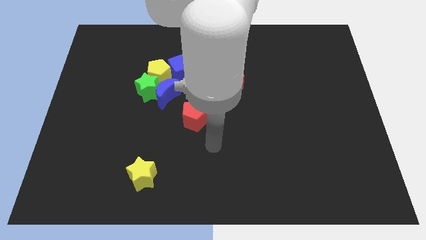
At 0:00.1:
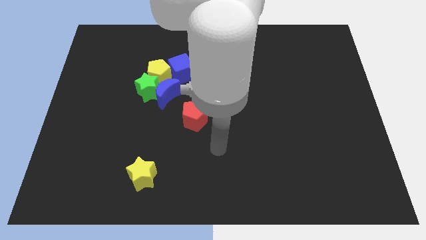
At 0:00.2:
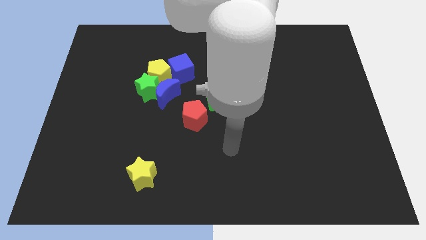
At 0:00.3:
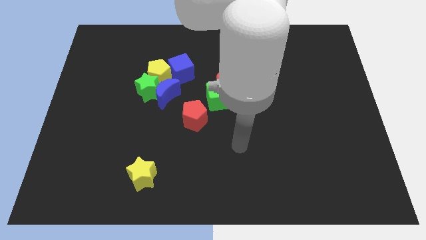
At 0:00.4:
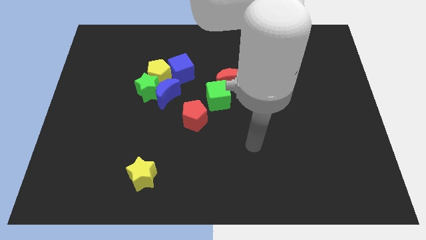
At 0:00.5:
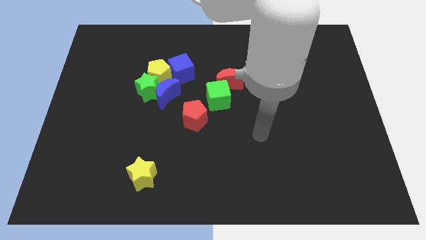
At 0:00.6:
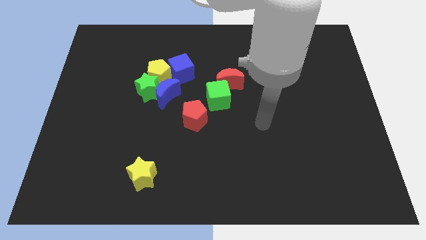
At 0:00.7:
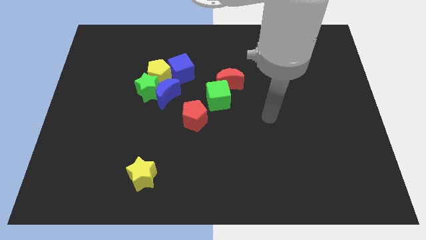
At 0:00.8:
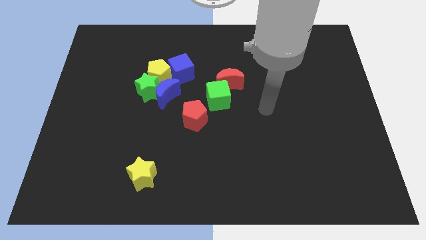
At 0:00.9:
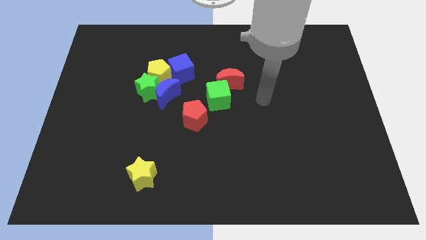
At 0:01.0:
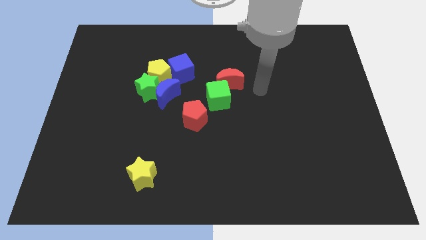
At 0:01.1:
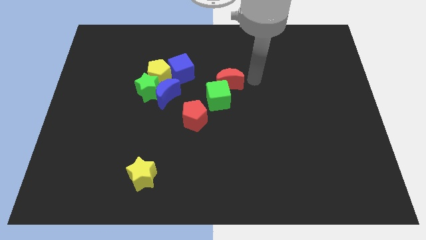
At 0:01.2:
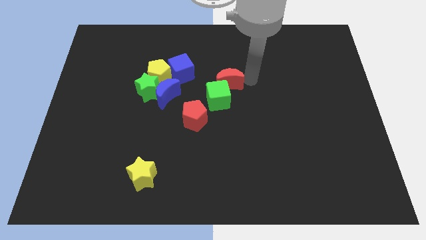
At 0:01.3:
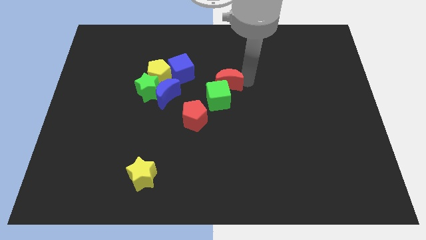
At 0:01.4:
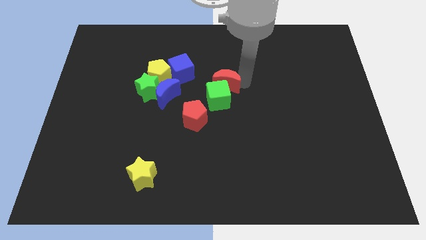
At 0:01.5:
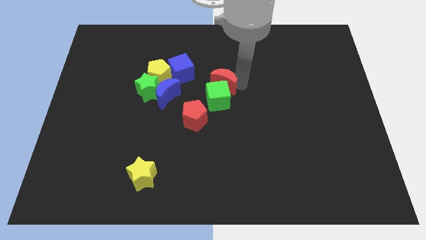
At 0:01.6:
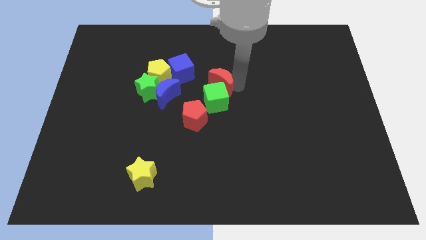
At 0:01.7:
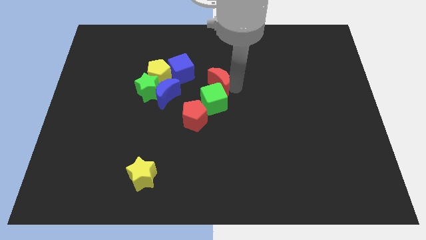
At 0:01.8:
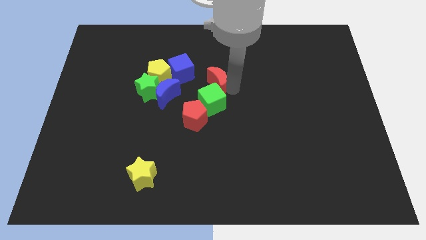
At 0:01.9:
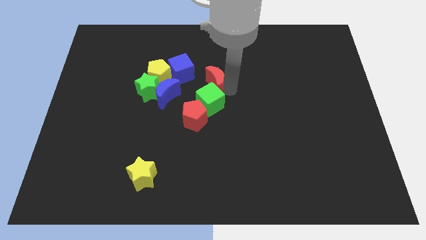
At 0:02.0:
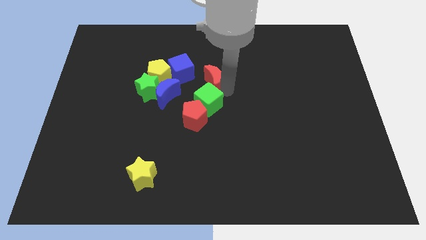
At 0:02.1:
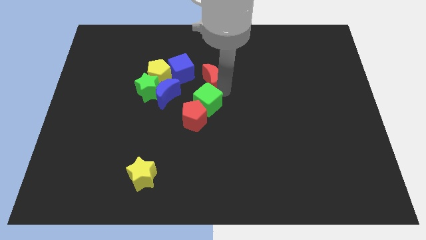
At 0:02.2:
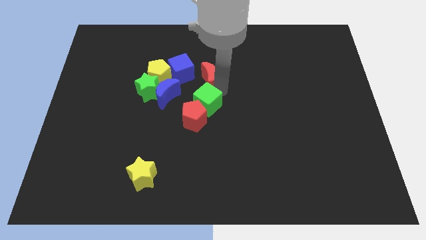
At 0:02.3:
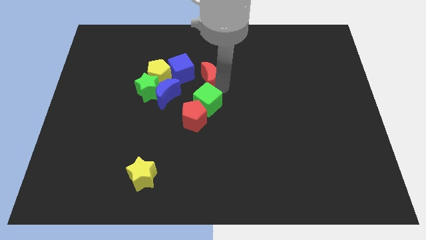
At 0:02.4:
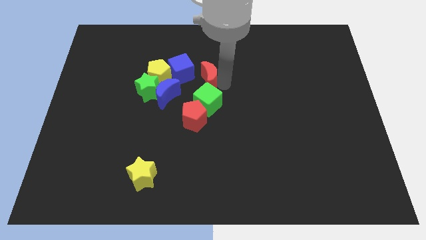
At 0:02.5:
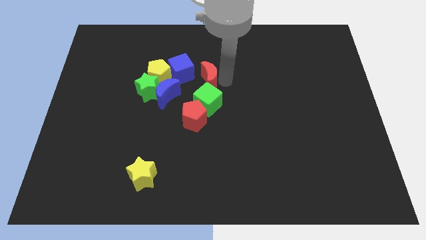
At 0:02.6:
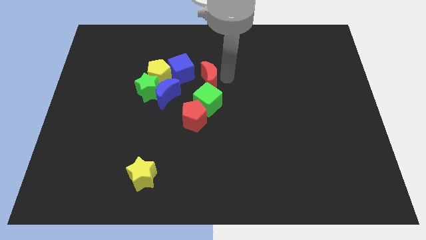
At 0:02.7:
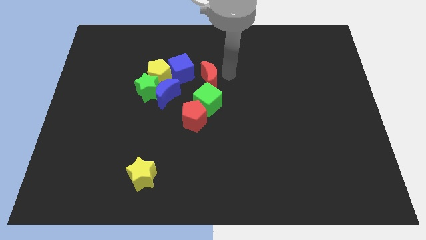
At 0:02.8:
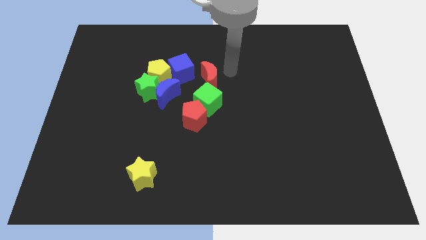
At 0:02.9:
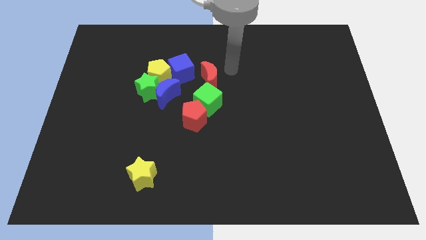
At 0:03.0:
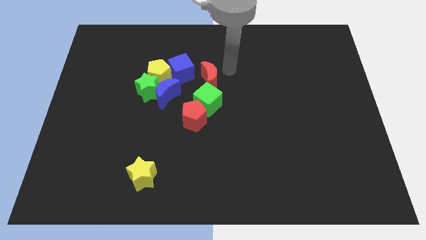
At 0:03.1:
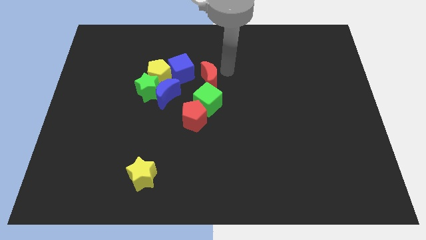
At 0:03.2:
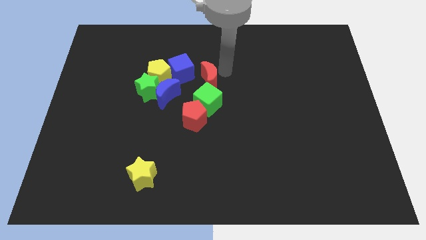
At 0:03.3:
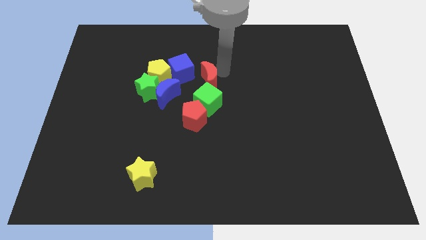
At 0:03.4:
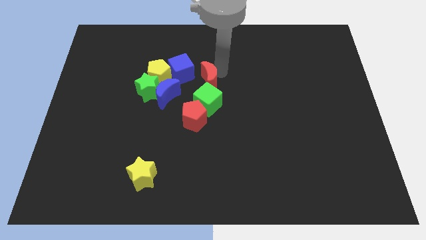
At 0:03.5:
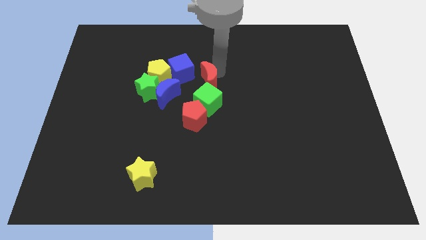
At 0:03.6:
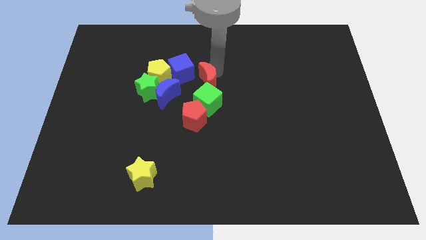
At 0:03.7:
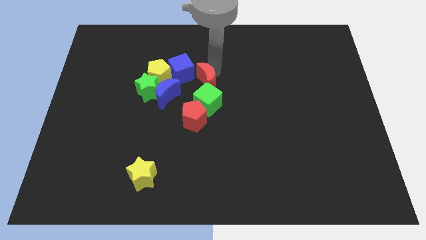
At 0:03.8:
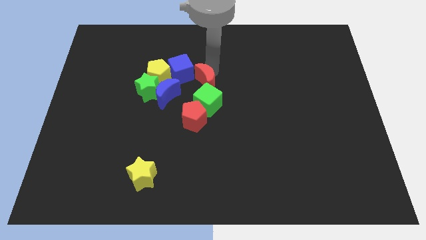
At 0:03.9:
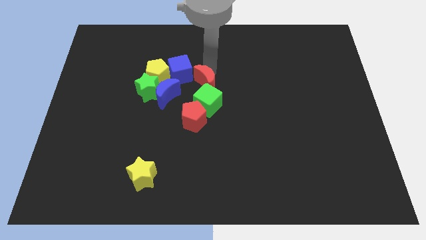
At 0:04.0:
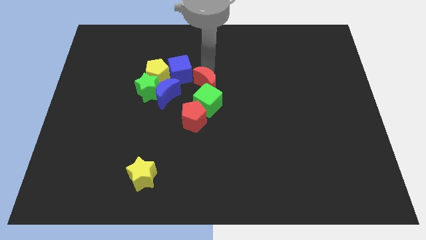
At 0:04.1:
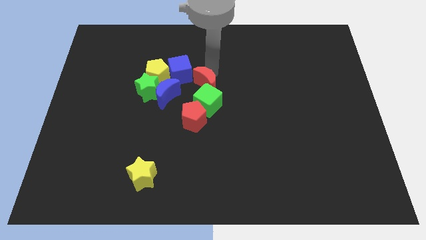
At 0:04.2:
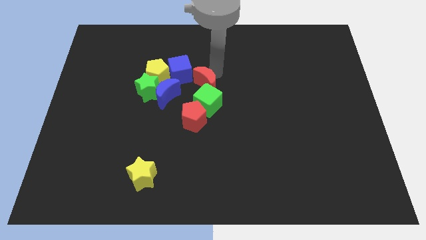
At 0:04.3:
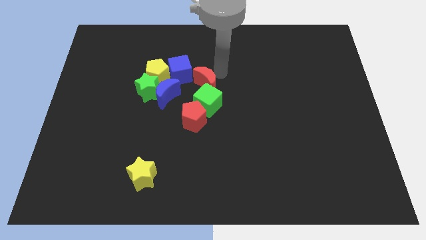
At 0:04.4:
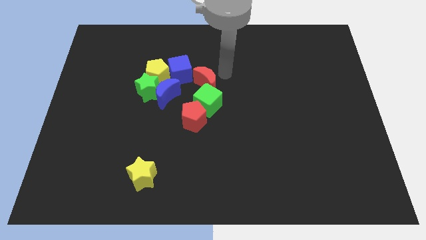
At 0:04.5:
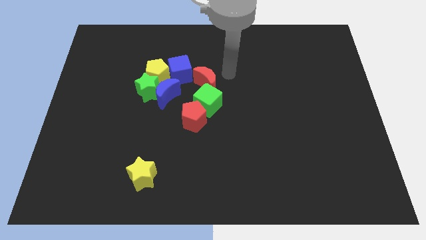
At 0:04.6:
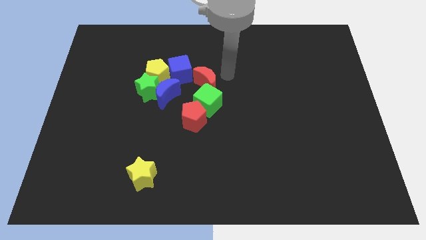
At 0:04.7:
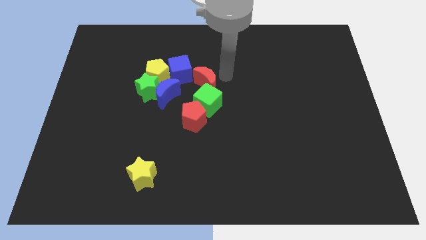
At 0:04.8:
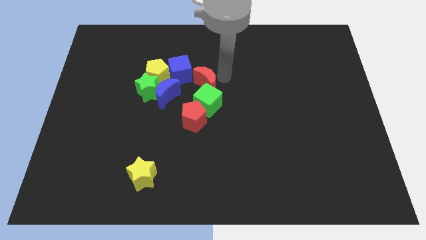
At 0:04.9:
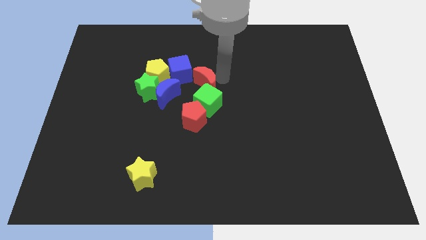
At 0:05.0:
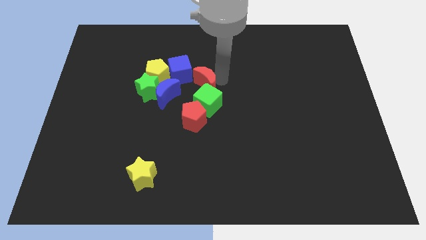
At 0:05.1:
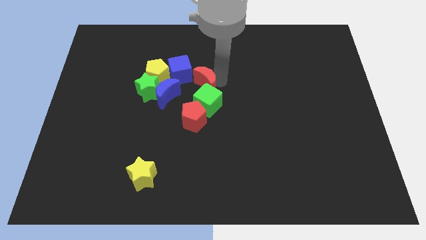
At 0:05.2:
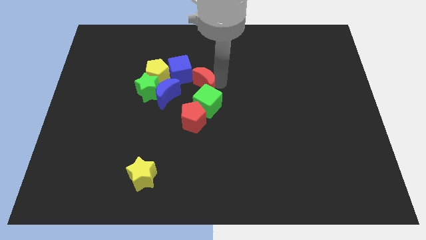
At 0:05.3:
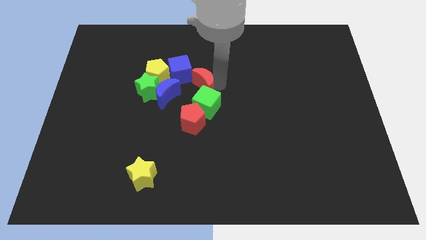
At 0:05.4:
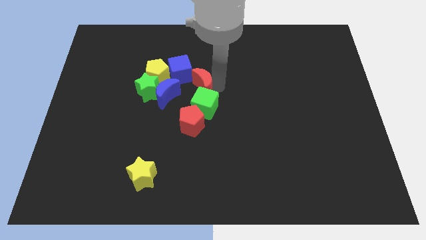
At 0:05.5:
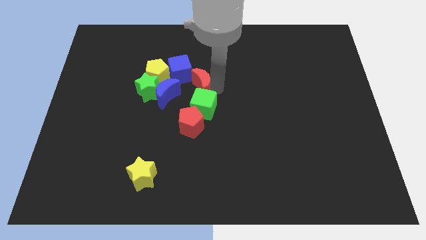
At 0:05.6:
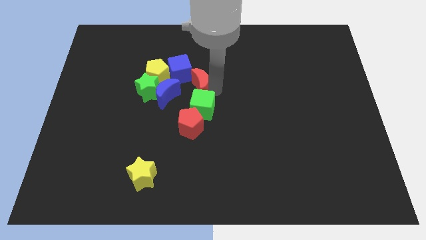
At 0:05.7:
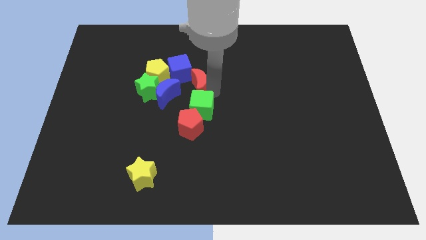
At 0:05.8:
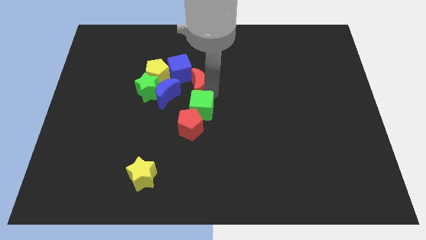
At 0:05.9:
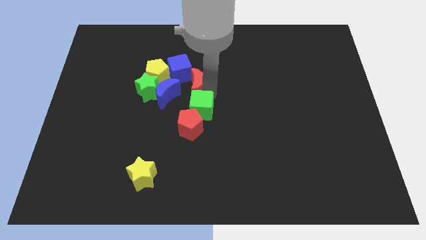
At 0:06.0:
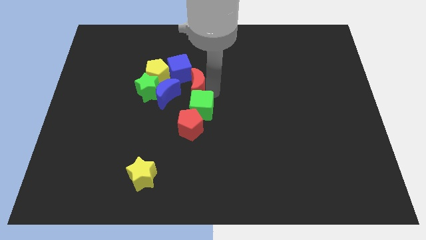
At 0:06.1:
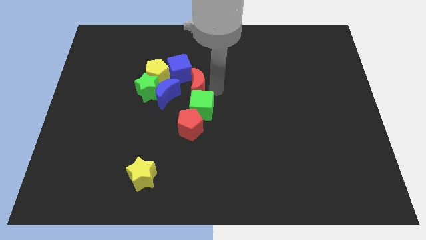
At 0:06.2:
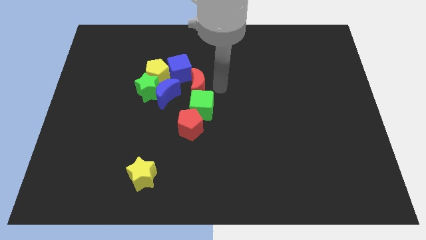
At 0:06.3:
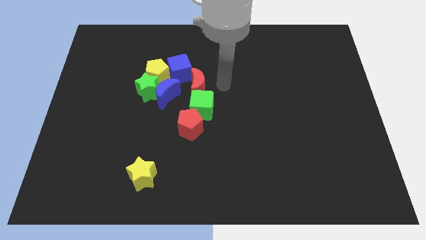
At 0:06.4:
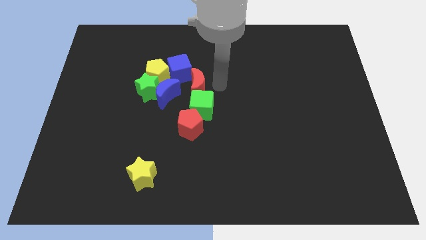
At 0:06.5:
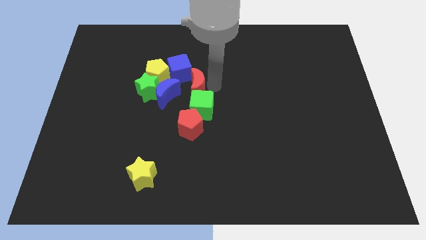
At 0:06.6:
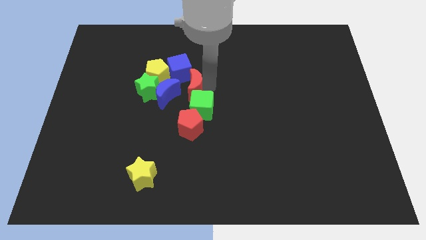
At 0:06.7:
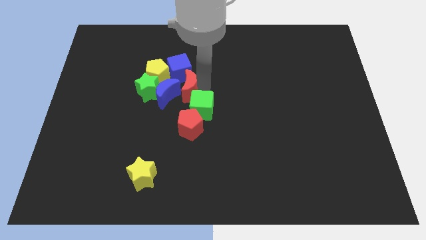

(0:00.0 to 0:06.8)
slide the red moon towards the blue moon
